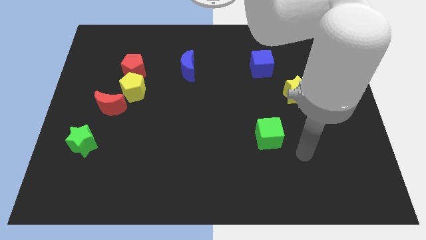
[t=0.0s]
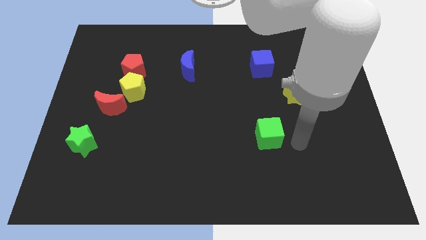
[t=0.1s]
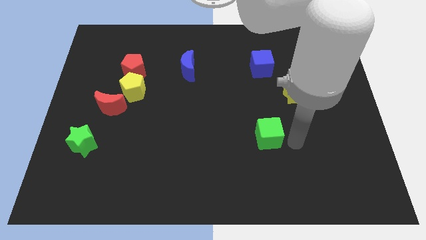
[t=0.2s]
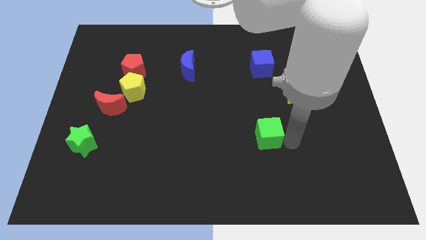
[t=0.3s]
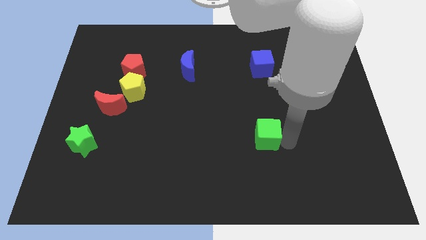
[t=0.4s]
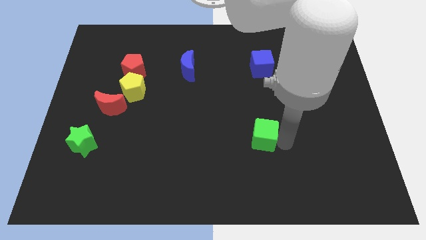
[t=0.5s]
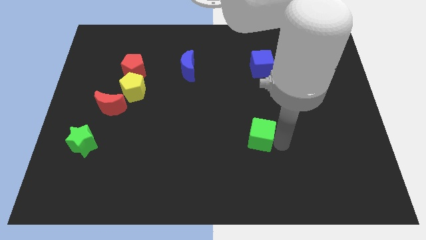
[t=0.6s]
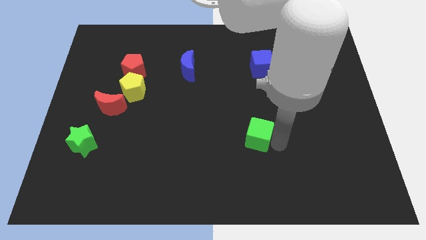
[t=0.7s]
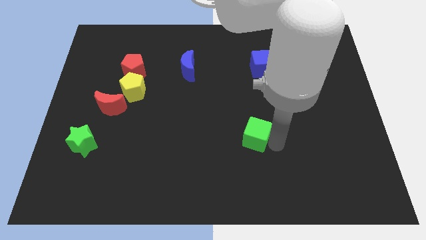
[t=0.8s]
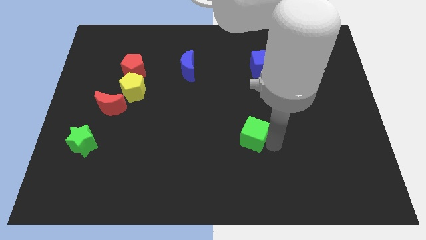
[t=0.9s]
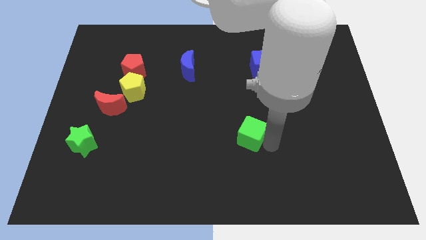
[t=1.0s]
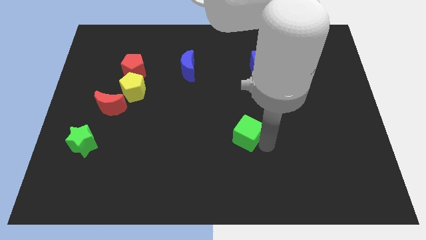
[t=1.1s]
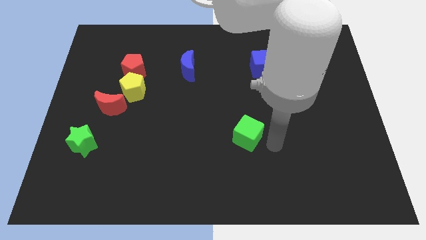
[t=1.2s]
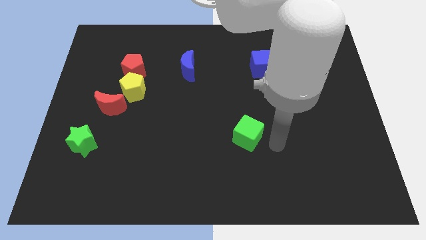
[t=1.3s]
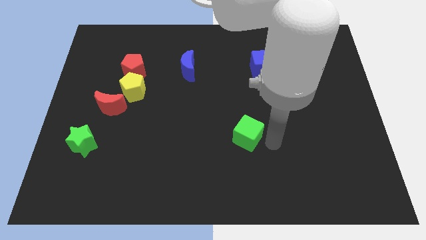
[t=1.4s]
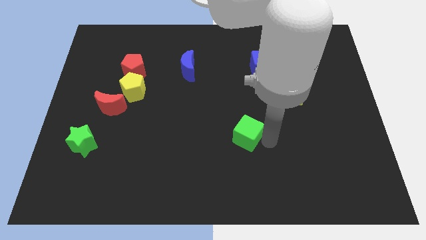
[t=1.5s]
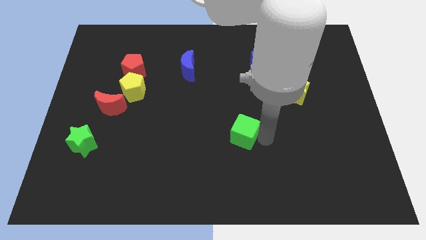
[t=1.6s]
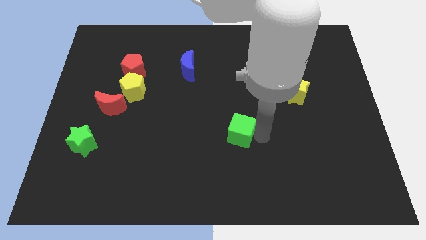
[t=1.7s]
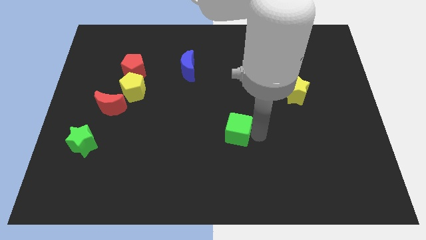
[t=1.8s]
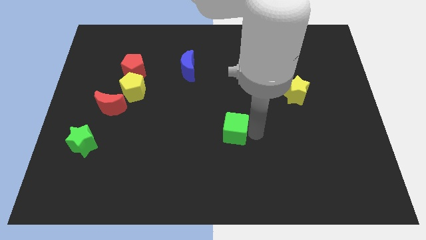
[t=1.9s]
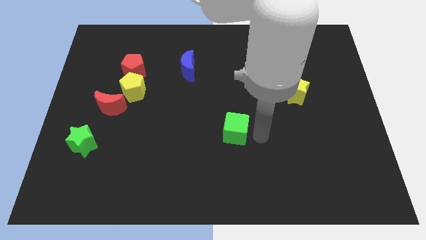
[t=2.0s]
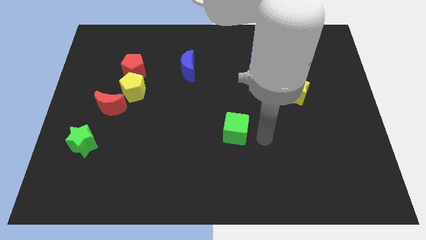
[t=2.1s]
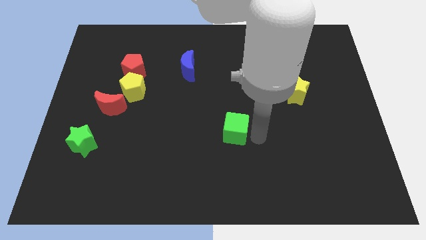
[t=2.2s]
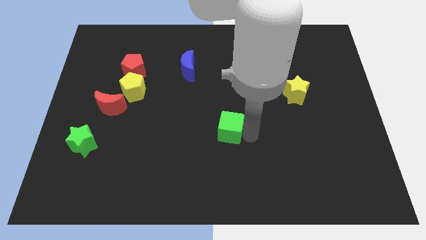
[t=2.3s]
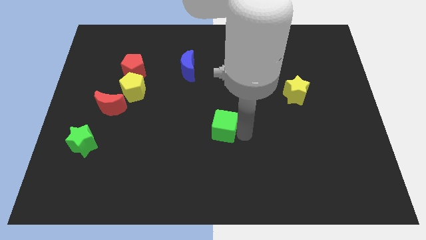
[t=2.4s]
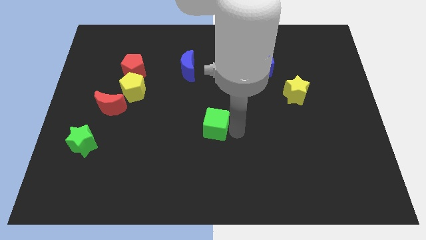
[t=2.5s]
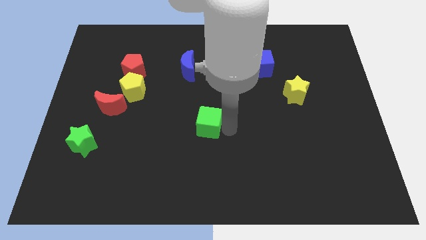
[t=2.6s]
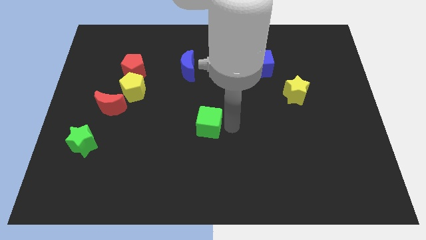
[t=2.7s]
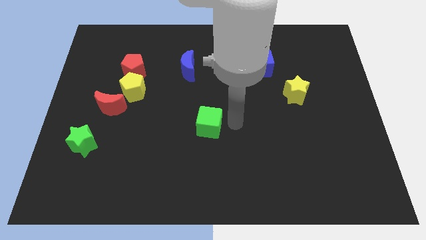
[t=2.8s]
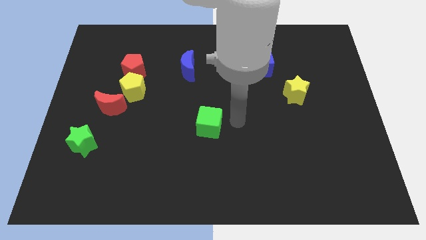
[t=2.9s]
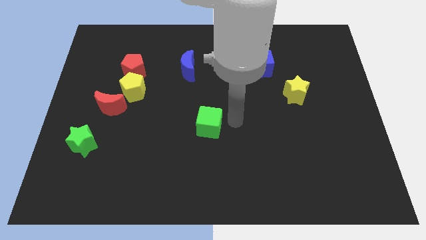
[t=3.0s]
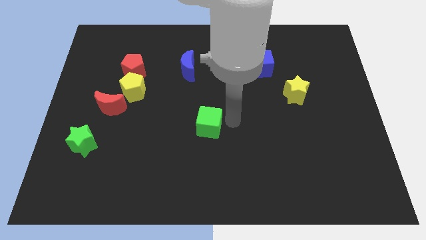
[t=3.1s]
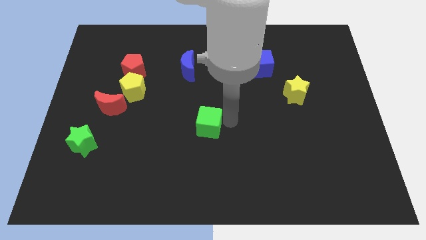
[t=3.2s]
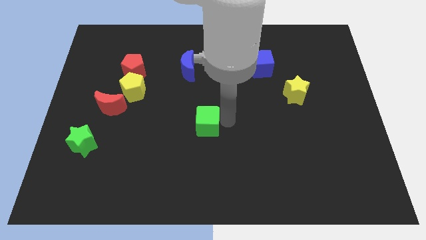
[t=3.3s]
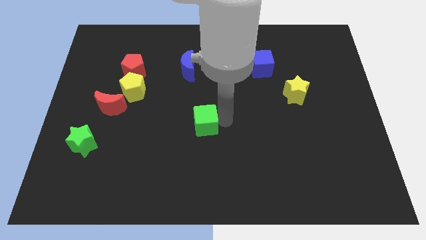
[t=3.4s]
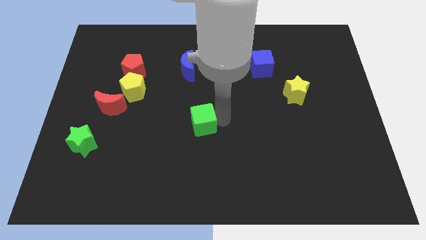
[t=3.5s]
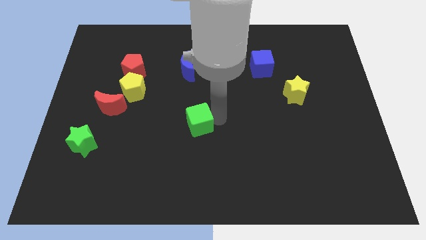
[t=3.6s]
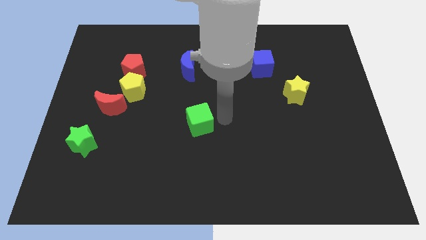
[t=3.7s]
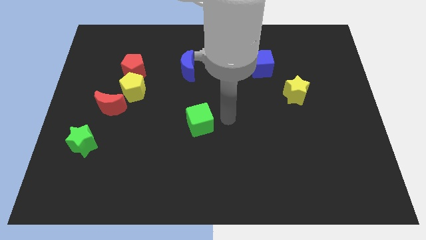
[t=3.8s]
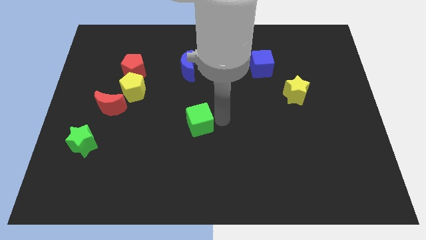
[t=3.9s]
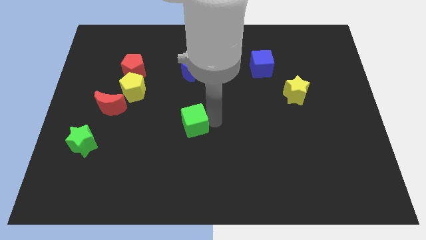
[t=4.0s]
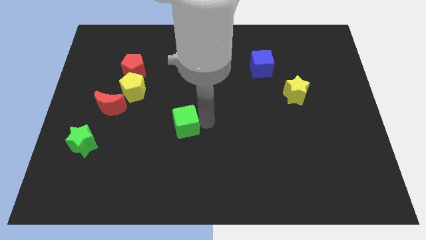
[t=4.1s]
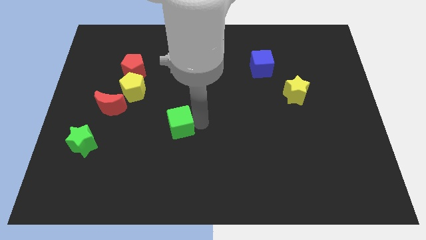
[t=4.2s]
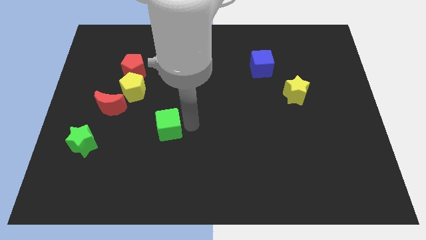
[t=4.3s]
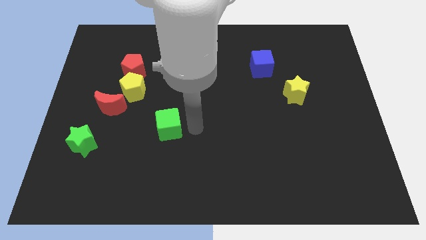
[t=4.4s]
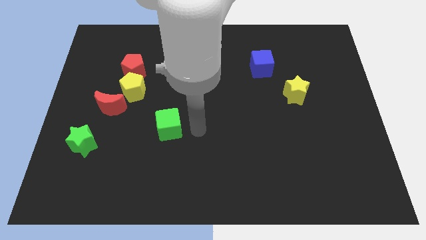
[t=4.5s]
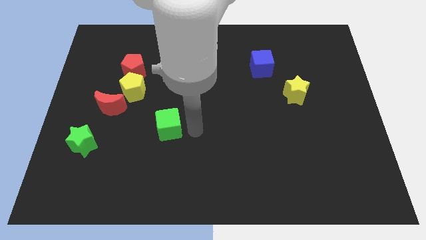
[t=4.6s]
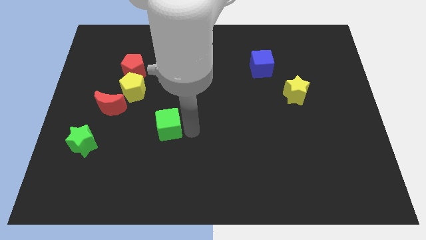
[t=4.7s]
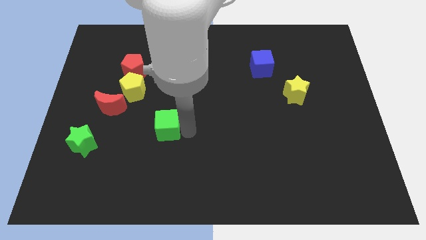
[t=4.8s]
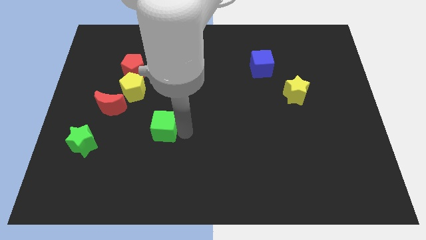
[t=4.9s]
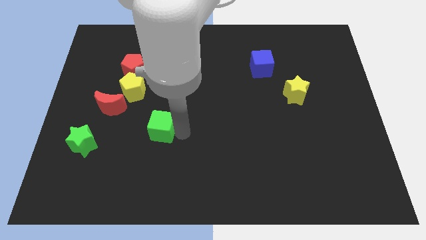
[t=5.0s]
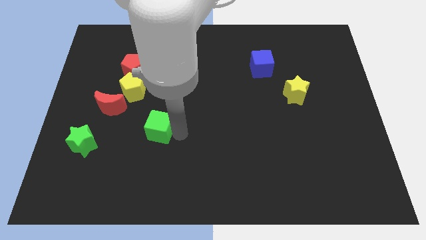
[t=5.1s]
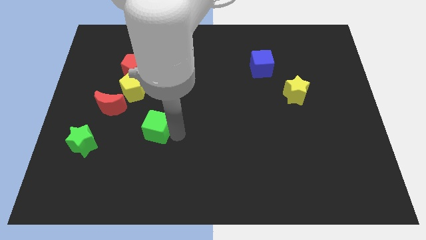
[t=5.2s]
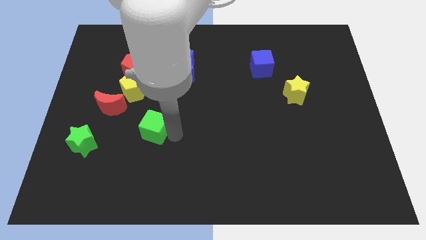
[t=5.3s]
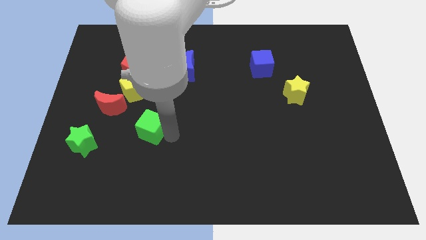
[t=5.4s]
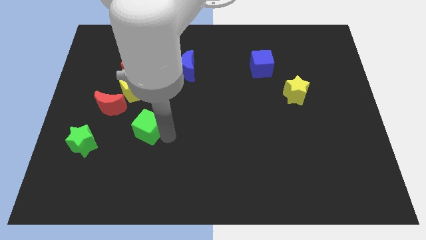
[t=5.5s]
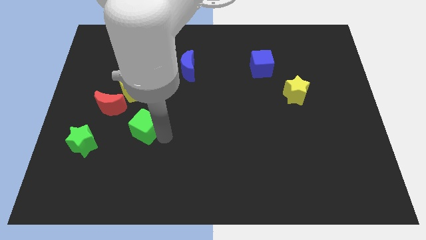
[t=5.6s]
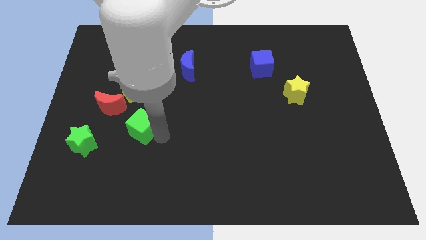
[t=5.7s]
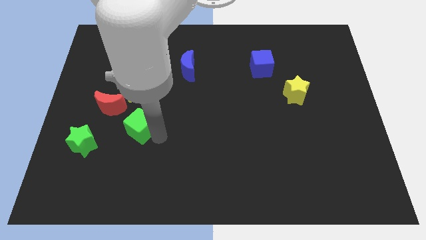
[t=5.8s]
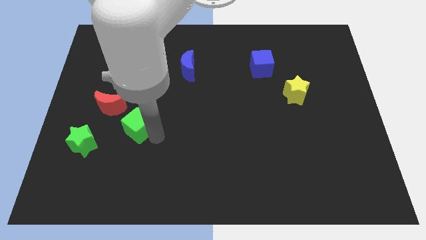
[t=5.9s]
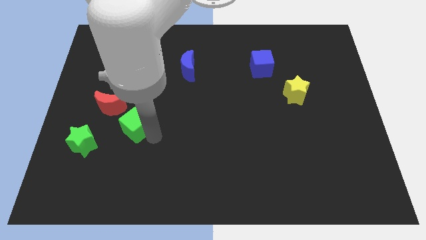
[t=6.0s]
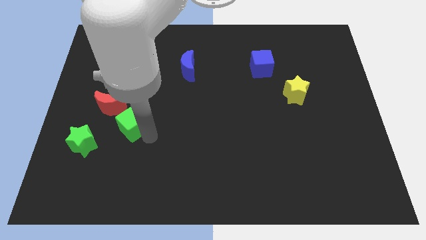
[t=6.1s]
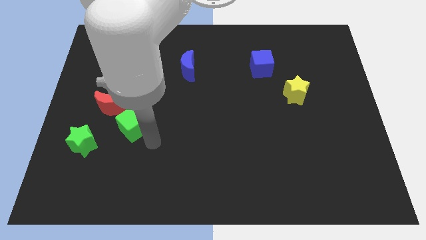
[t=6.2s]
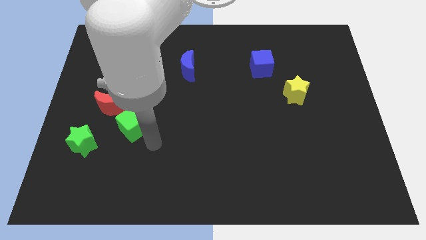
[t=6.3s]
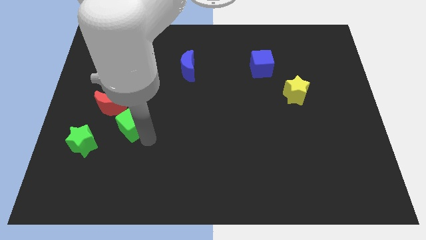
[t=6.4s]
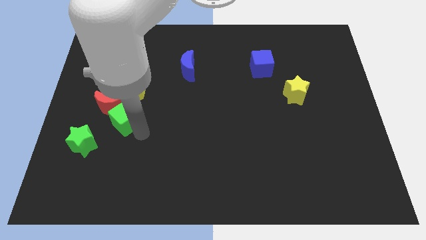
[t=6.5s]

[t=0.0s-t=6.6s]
slide the green cube next to the red moon

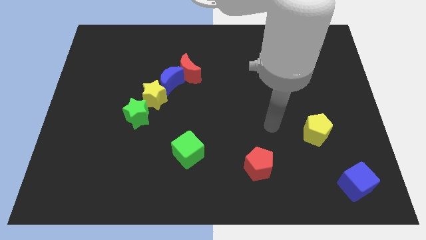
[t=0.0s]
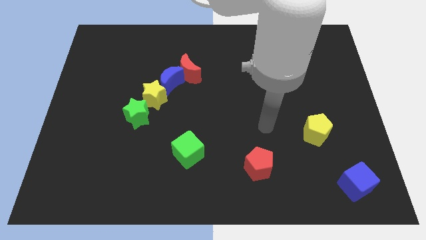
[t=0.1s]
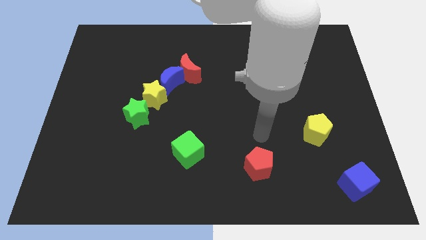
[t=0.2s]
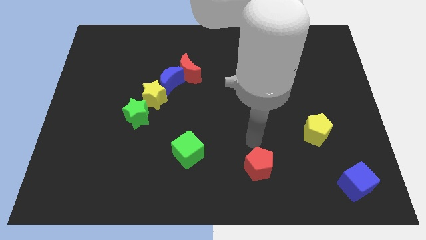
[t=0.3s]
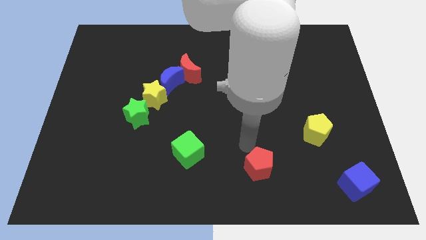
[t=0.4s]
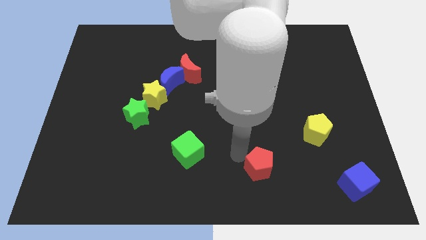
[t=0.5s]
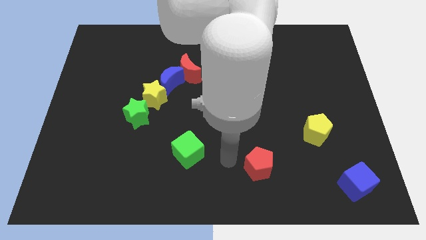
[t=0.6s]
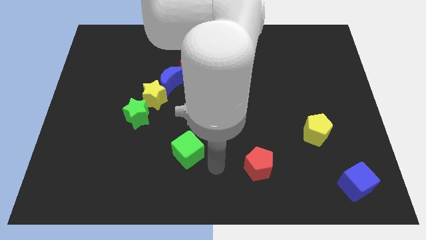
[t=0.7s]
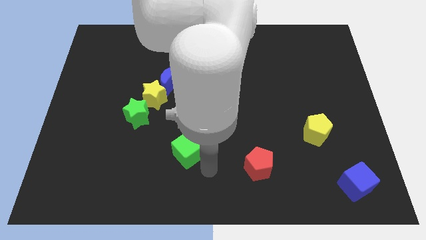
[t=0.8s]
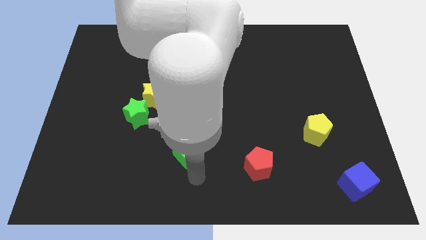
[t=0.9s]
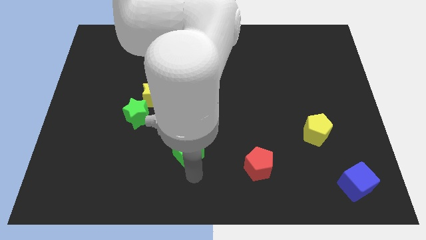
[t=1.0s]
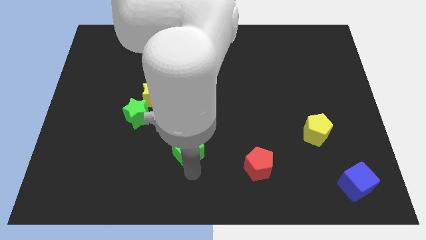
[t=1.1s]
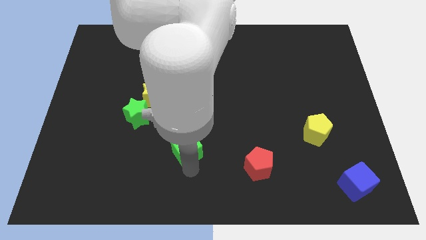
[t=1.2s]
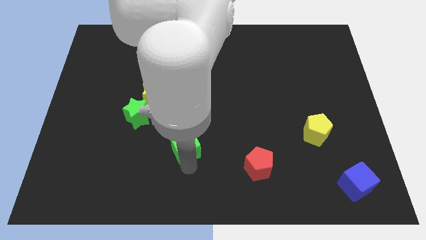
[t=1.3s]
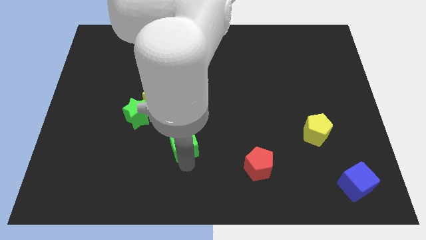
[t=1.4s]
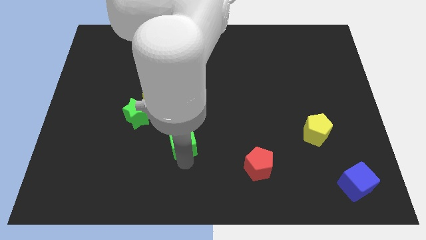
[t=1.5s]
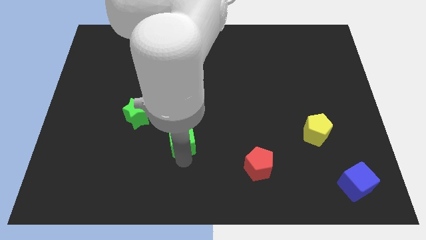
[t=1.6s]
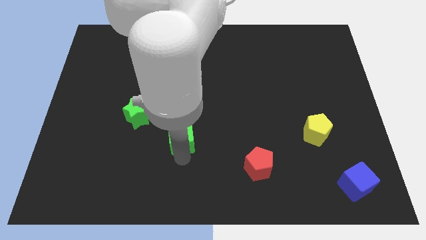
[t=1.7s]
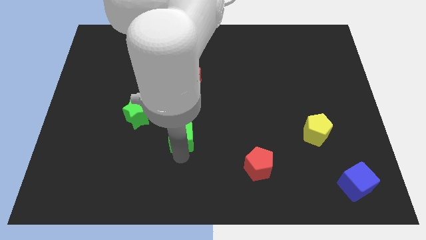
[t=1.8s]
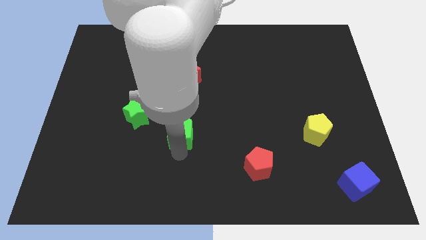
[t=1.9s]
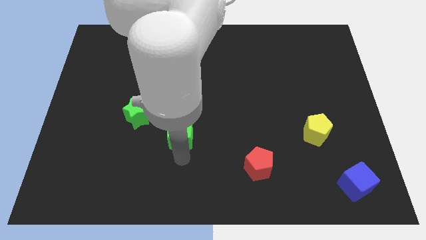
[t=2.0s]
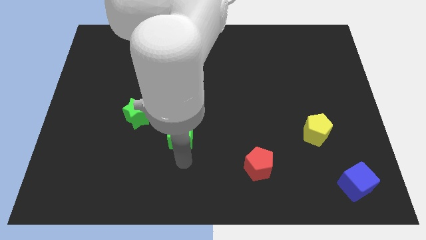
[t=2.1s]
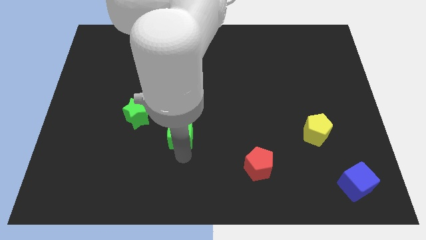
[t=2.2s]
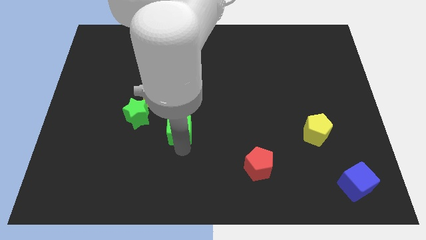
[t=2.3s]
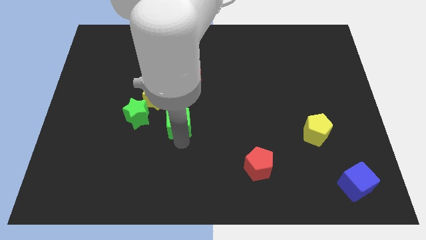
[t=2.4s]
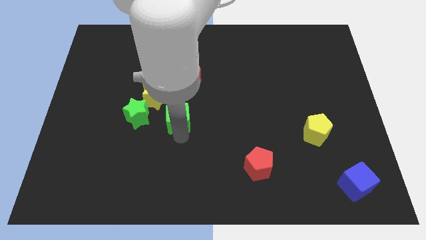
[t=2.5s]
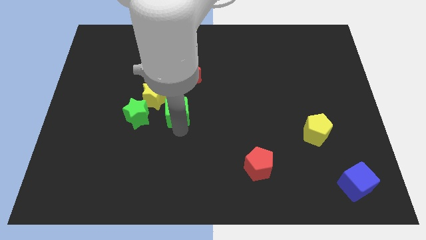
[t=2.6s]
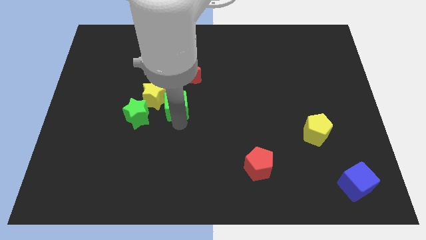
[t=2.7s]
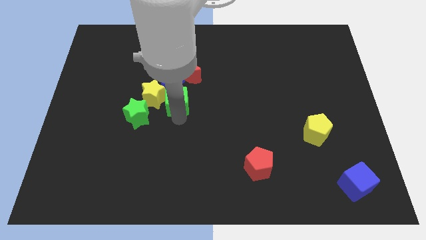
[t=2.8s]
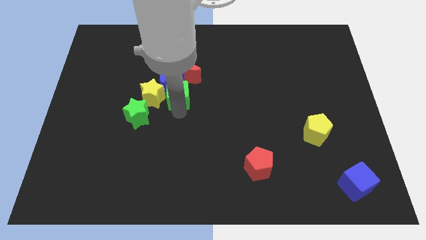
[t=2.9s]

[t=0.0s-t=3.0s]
slide the green cube close to the blue moon
